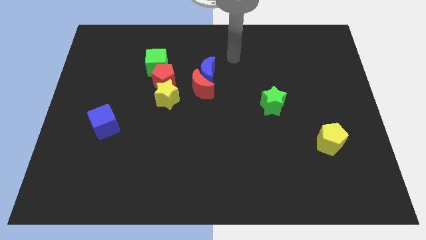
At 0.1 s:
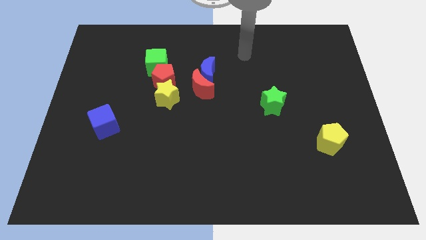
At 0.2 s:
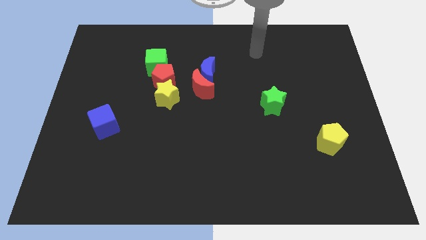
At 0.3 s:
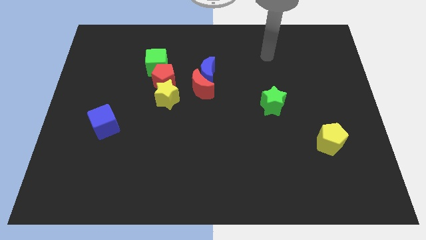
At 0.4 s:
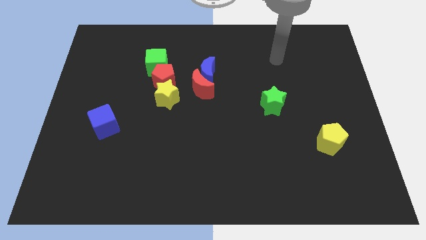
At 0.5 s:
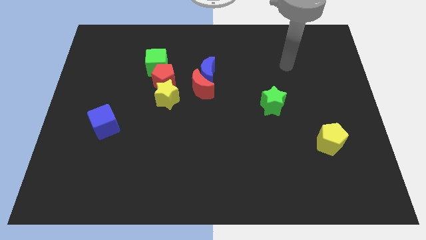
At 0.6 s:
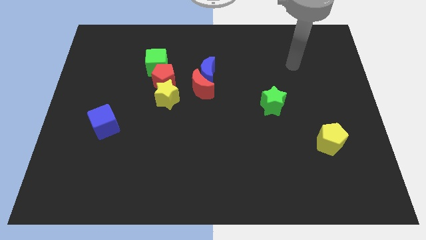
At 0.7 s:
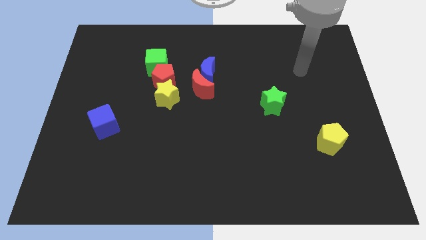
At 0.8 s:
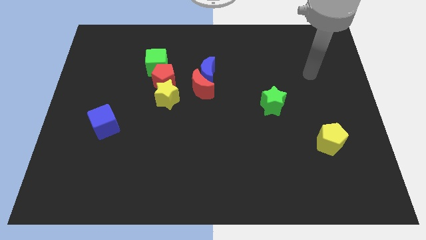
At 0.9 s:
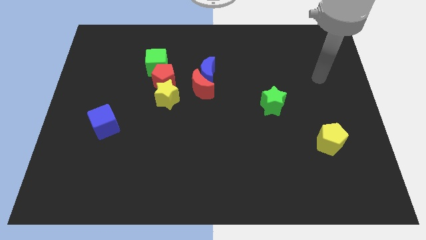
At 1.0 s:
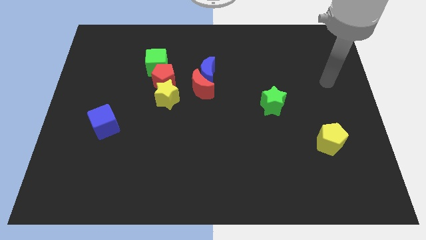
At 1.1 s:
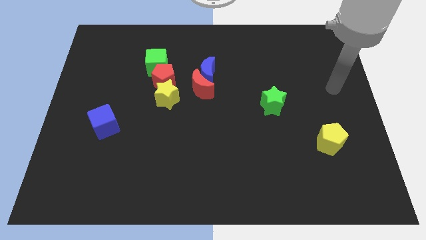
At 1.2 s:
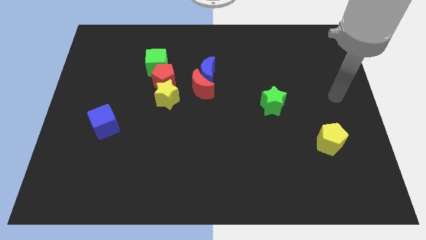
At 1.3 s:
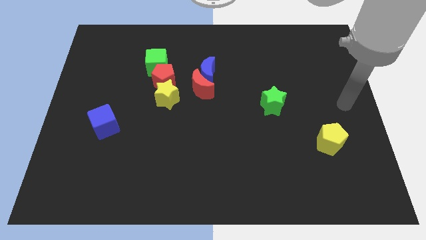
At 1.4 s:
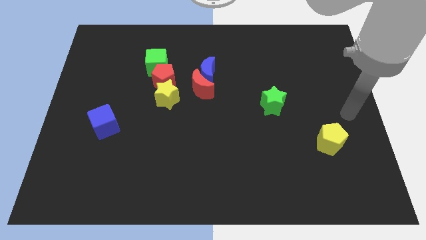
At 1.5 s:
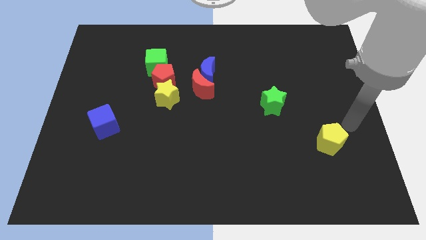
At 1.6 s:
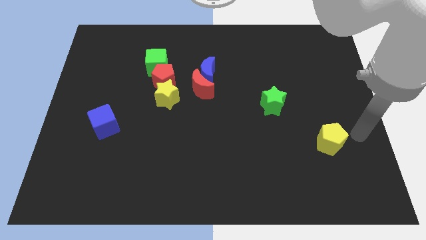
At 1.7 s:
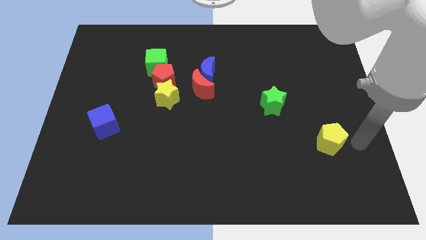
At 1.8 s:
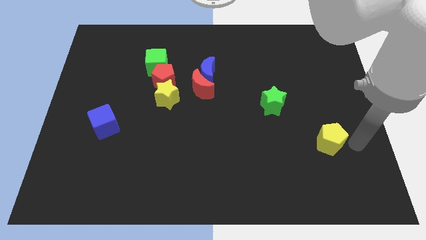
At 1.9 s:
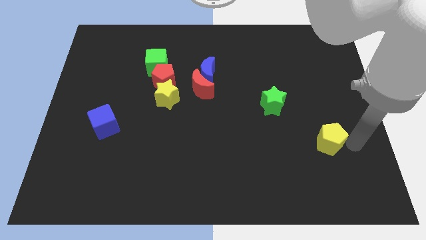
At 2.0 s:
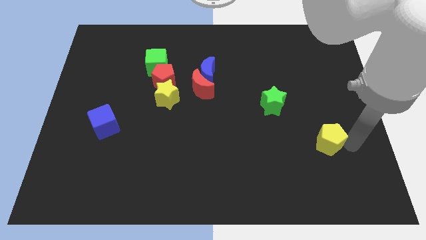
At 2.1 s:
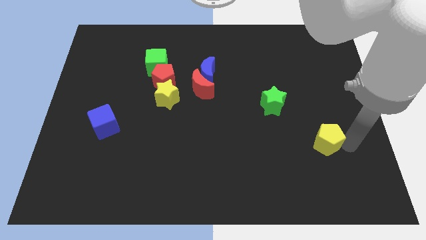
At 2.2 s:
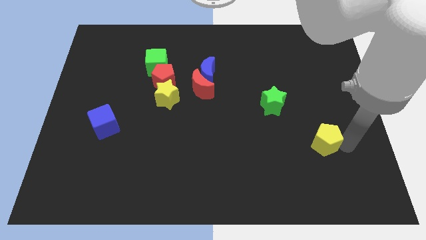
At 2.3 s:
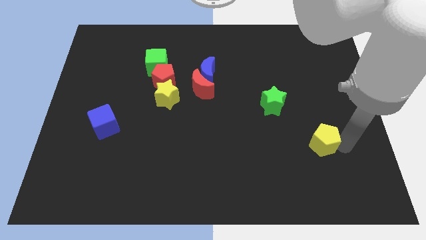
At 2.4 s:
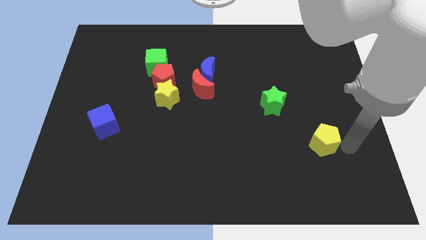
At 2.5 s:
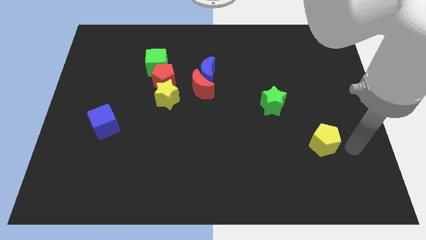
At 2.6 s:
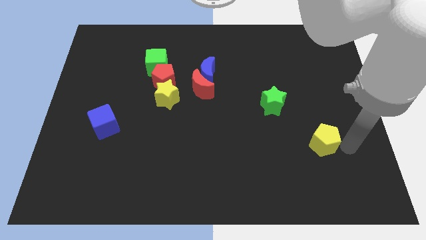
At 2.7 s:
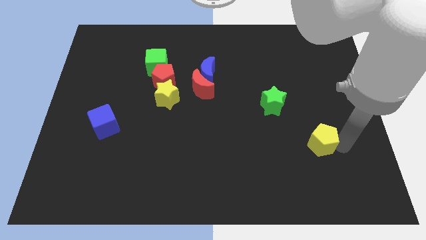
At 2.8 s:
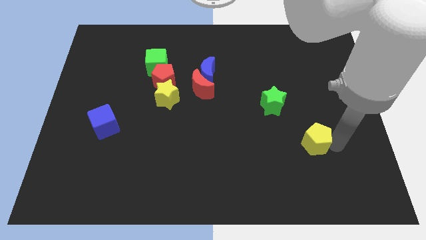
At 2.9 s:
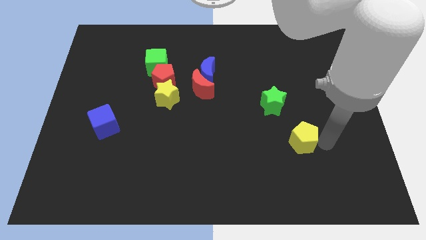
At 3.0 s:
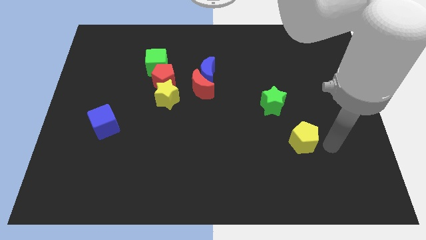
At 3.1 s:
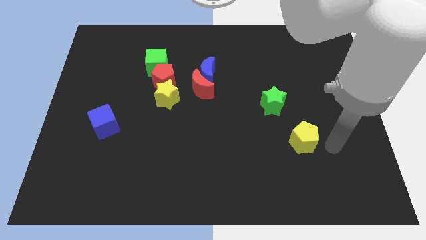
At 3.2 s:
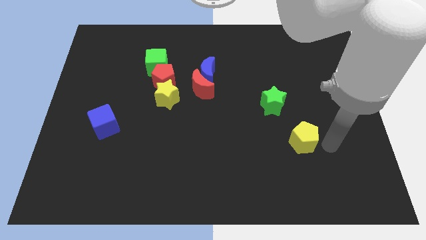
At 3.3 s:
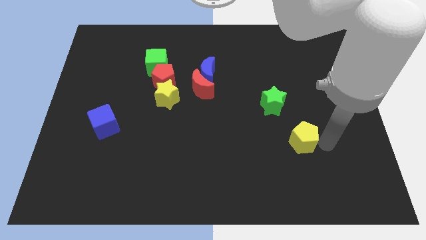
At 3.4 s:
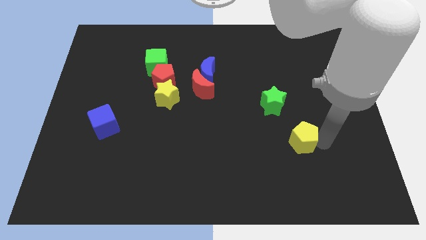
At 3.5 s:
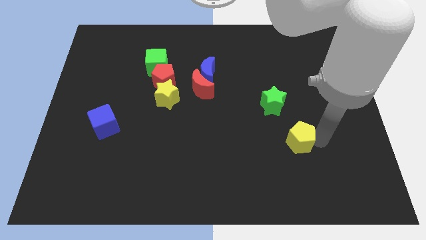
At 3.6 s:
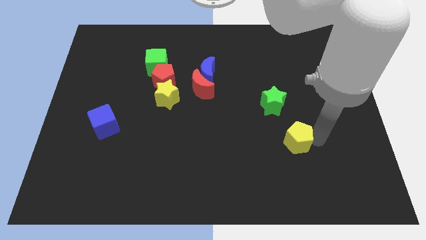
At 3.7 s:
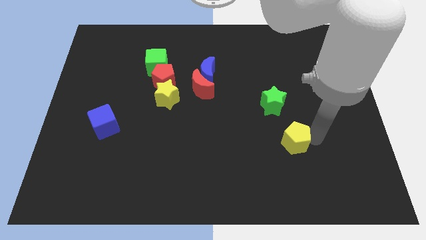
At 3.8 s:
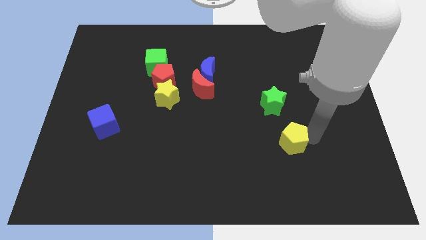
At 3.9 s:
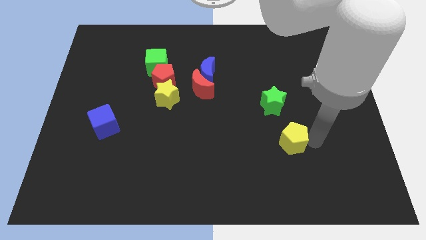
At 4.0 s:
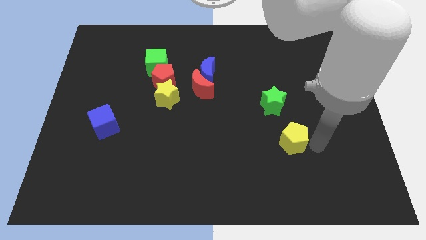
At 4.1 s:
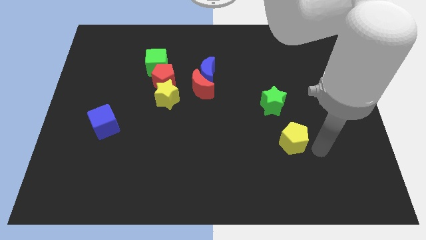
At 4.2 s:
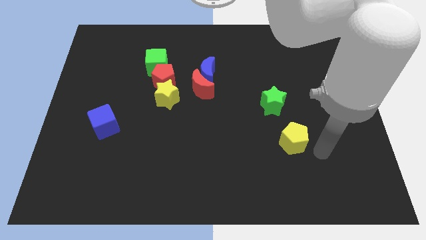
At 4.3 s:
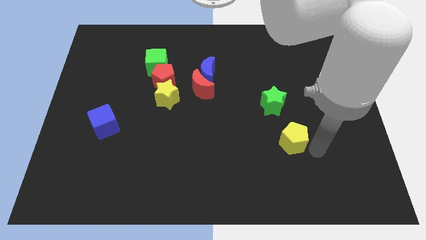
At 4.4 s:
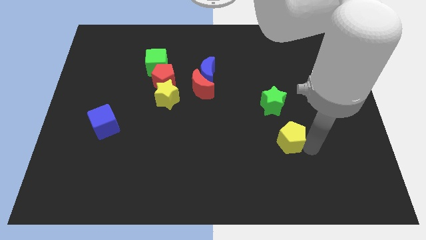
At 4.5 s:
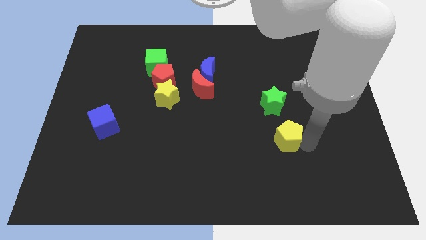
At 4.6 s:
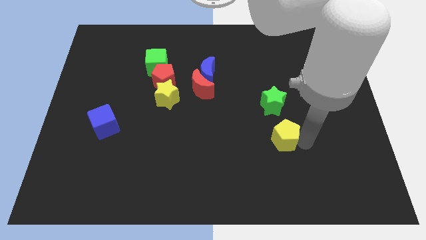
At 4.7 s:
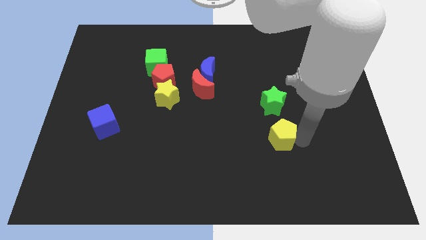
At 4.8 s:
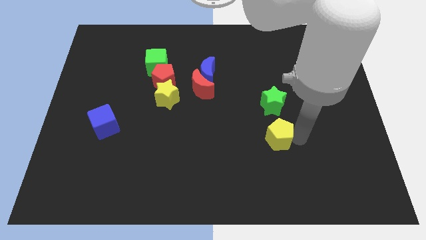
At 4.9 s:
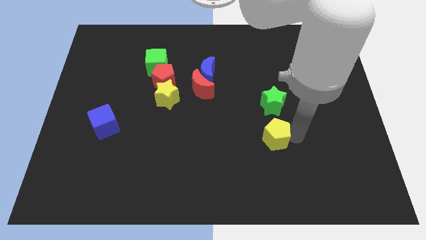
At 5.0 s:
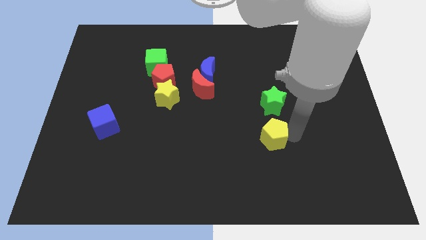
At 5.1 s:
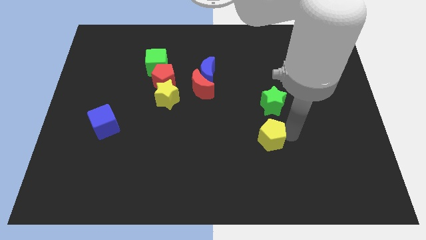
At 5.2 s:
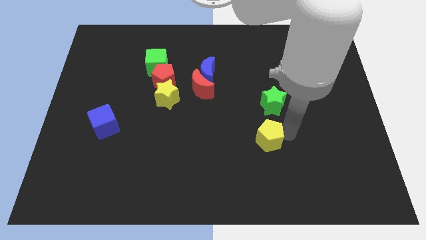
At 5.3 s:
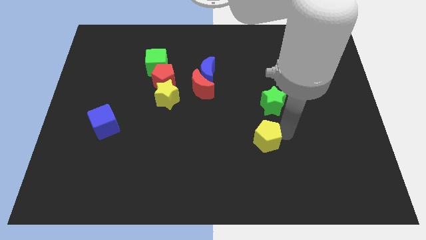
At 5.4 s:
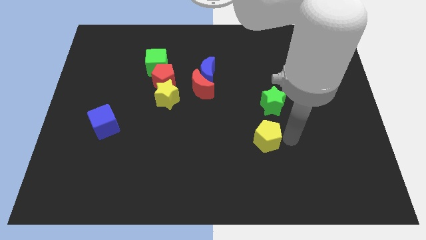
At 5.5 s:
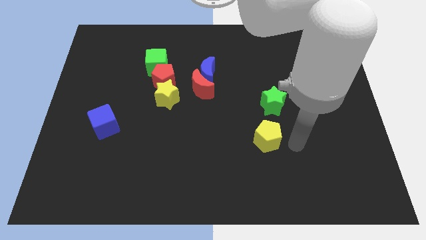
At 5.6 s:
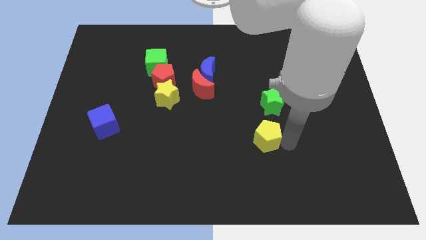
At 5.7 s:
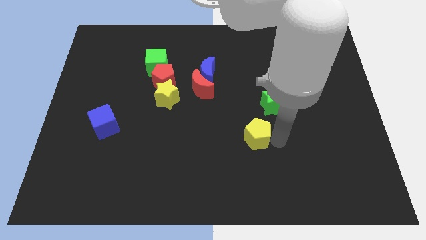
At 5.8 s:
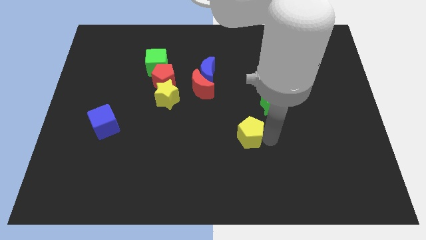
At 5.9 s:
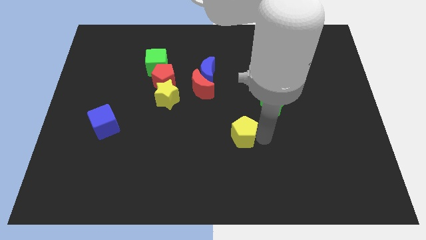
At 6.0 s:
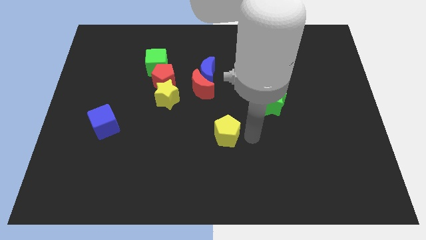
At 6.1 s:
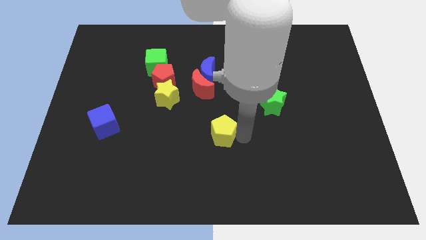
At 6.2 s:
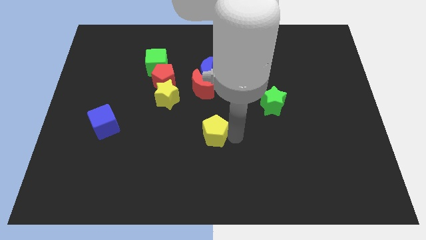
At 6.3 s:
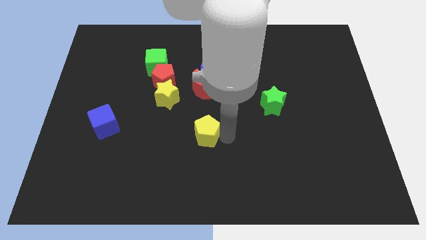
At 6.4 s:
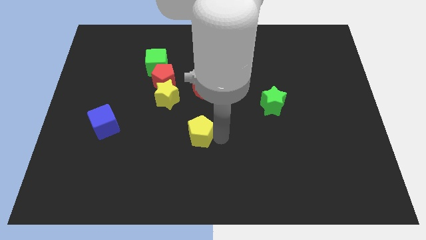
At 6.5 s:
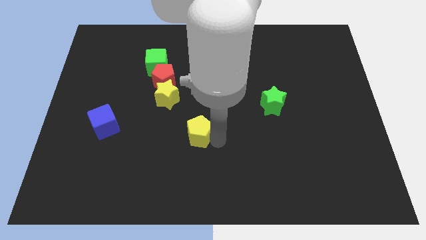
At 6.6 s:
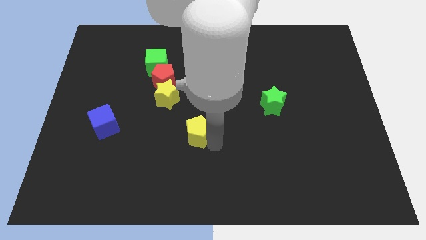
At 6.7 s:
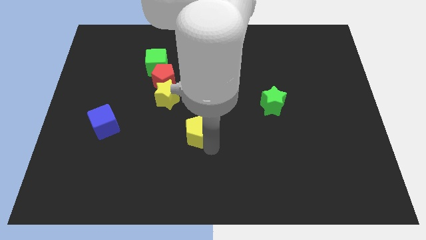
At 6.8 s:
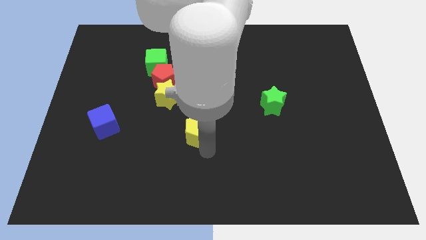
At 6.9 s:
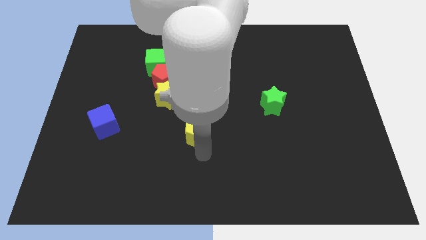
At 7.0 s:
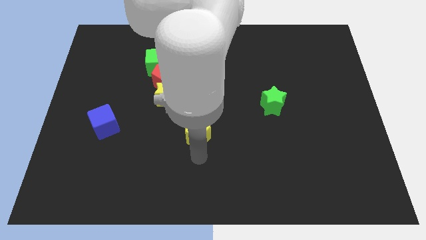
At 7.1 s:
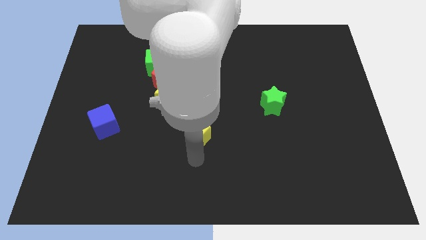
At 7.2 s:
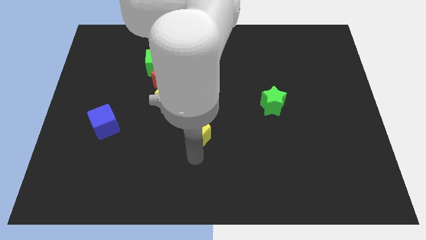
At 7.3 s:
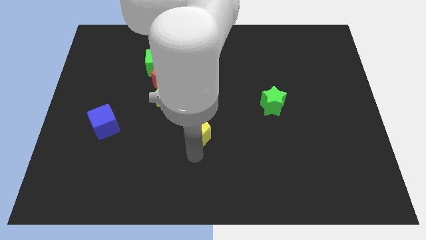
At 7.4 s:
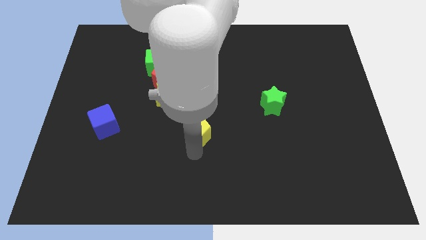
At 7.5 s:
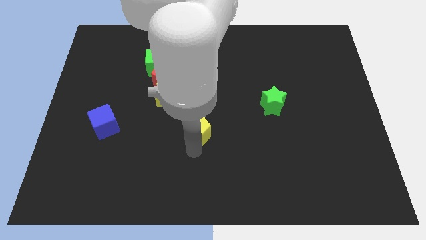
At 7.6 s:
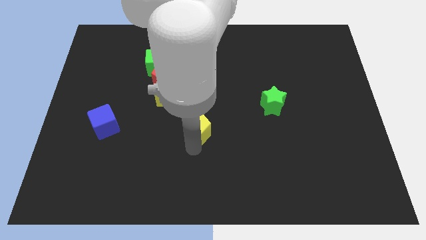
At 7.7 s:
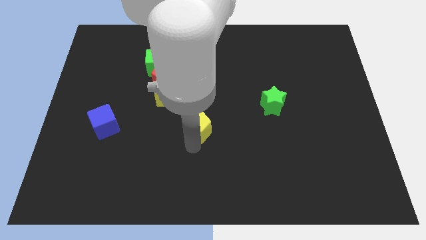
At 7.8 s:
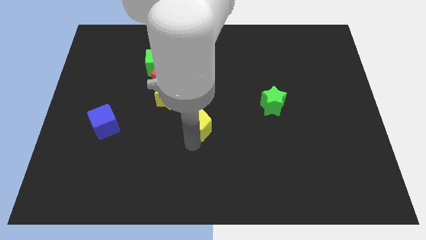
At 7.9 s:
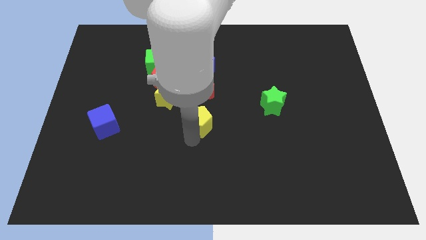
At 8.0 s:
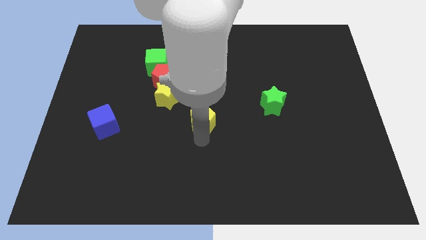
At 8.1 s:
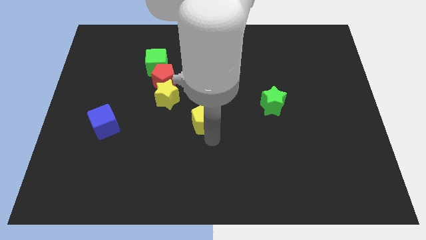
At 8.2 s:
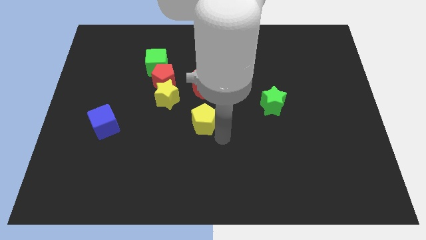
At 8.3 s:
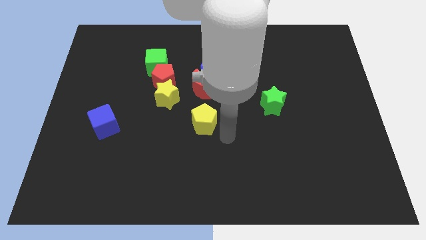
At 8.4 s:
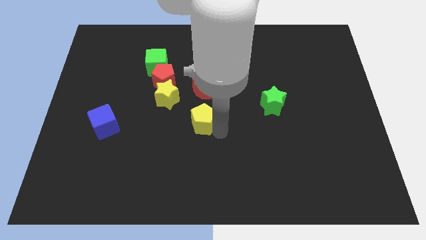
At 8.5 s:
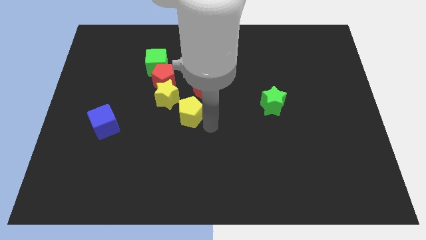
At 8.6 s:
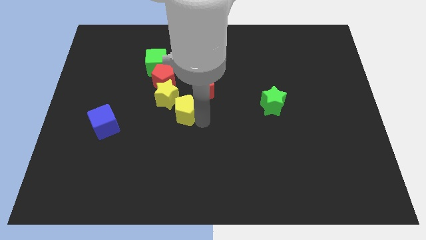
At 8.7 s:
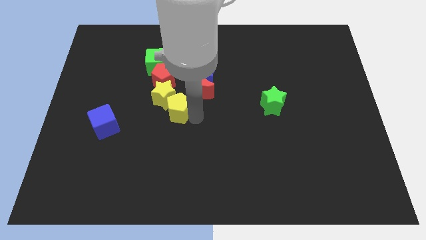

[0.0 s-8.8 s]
push the yellow pentagon towards the yellow star
